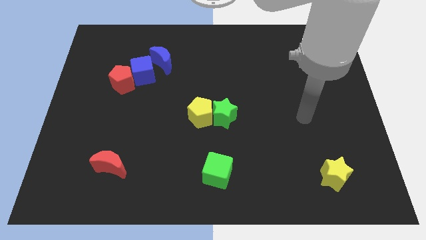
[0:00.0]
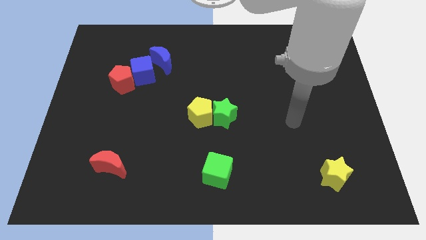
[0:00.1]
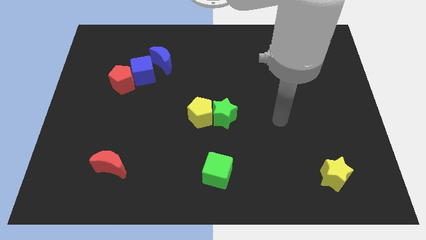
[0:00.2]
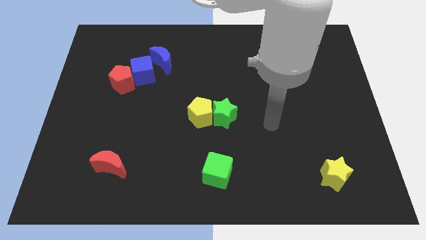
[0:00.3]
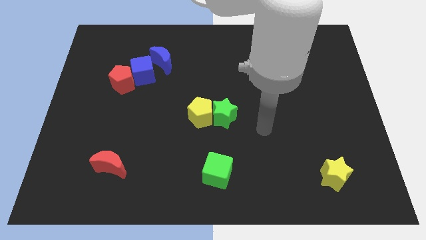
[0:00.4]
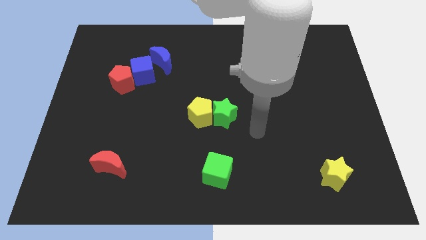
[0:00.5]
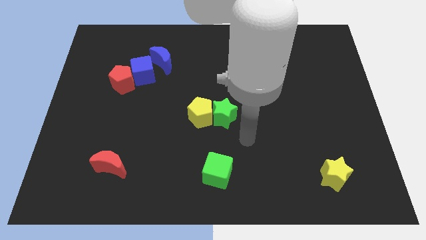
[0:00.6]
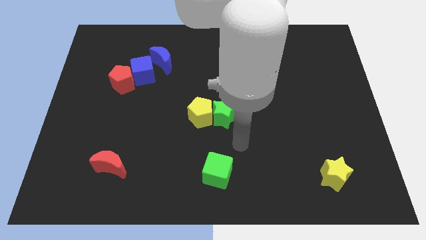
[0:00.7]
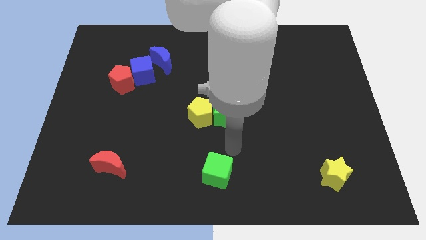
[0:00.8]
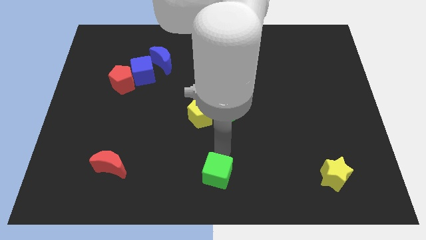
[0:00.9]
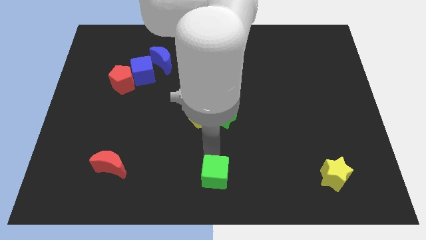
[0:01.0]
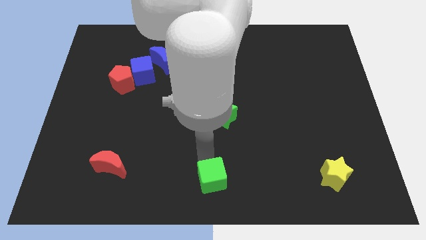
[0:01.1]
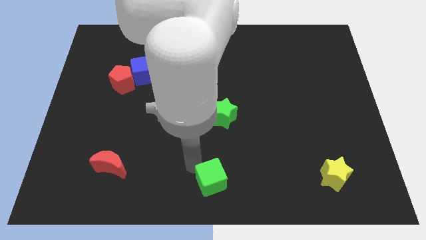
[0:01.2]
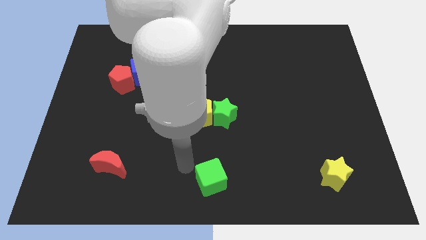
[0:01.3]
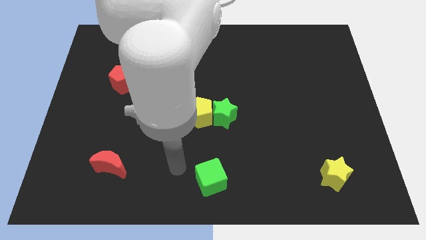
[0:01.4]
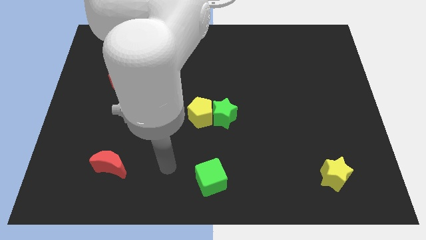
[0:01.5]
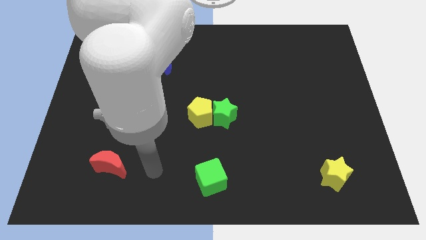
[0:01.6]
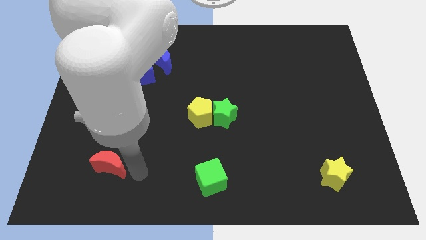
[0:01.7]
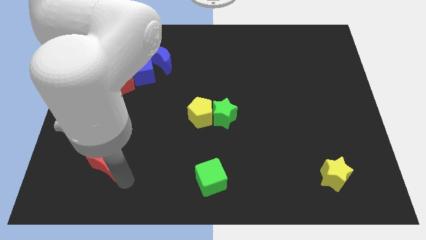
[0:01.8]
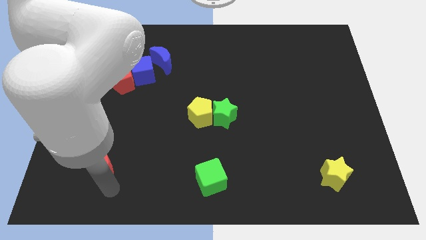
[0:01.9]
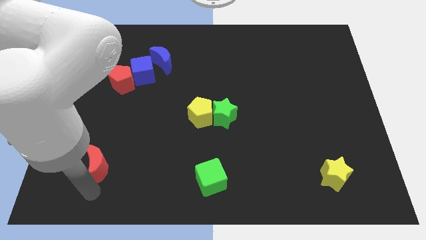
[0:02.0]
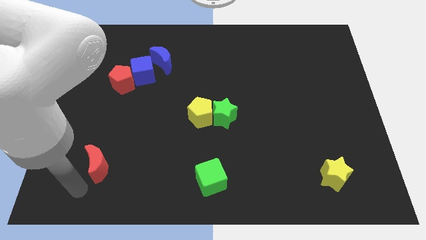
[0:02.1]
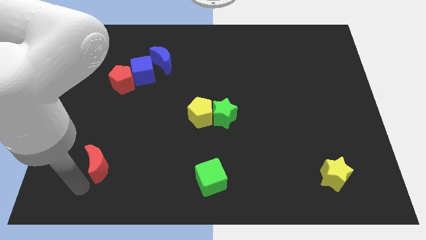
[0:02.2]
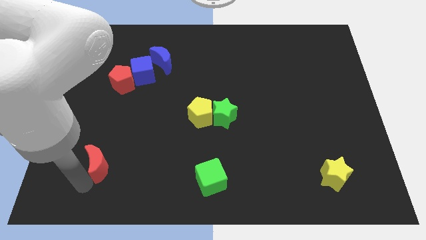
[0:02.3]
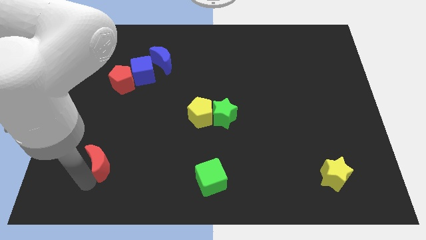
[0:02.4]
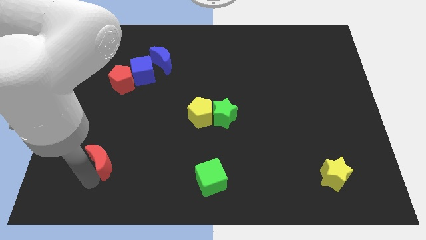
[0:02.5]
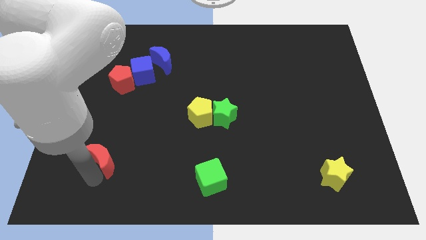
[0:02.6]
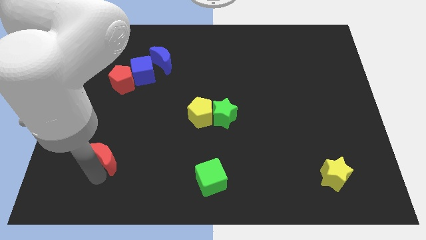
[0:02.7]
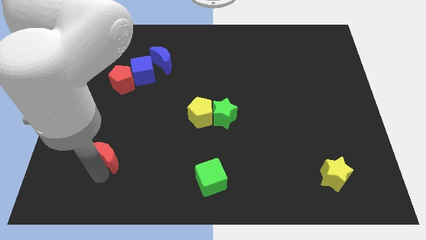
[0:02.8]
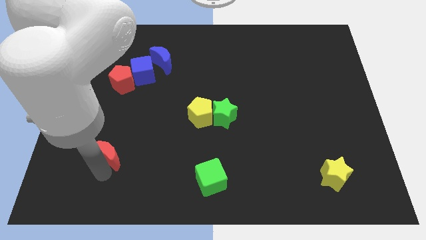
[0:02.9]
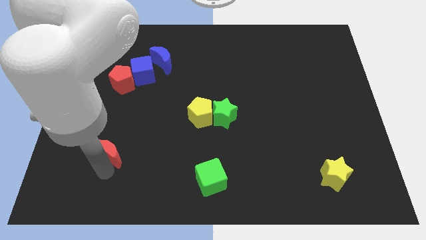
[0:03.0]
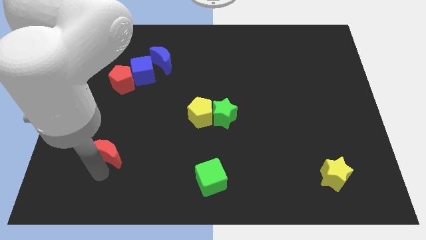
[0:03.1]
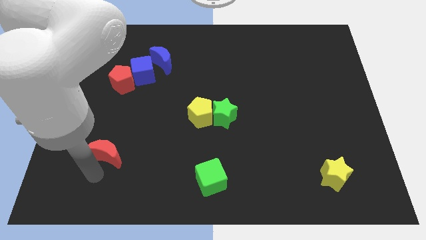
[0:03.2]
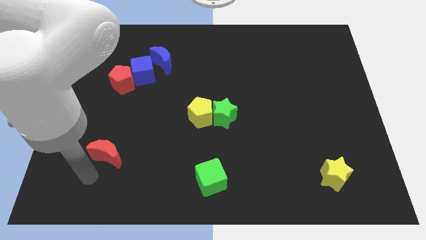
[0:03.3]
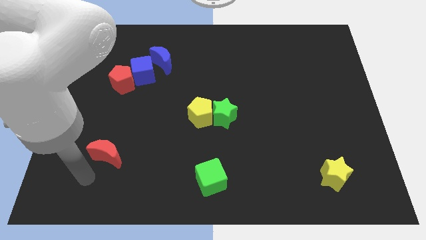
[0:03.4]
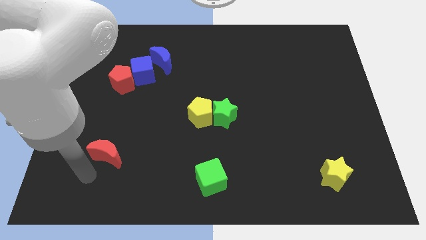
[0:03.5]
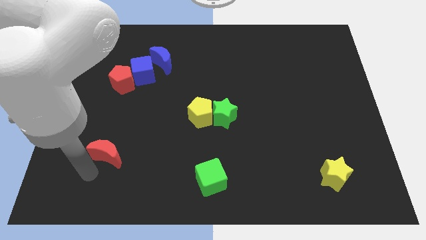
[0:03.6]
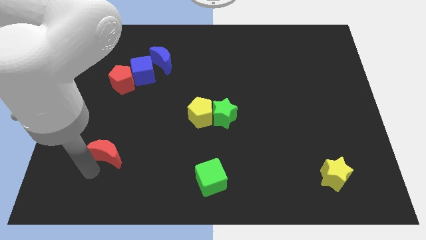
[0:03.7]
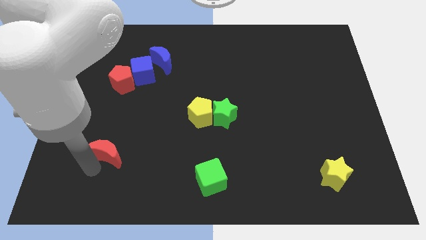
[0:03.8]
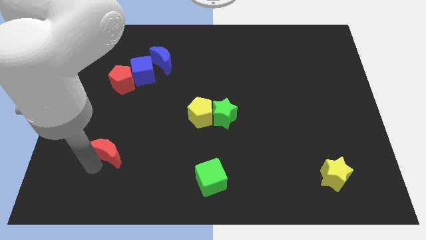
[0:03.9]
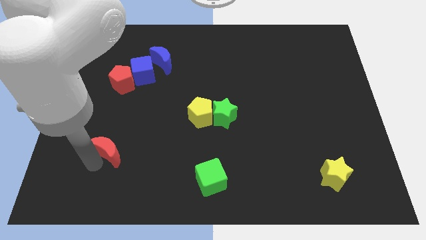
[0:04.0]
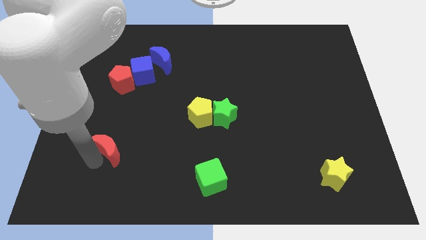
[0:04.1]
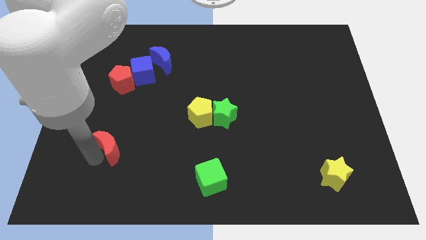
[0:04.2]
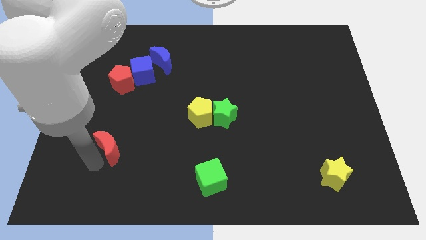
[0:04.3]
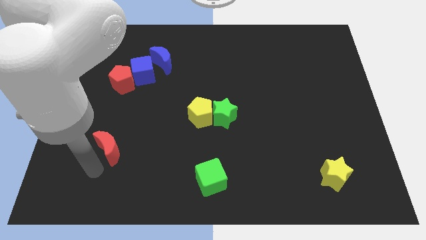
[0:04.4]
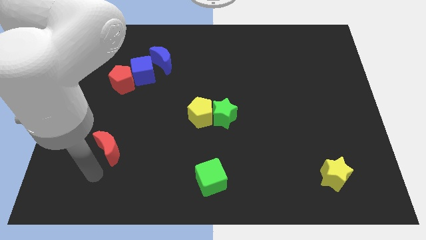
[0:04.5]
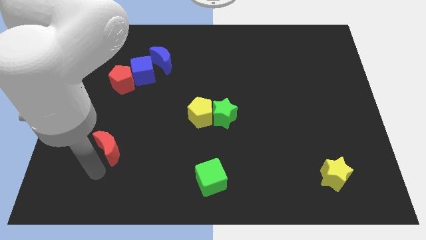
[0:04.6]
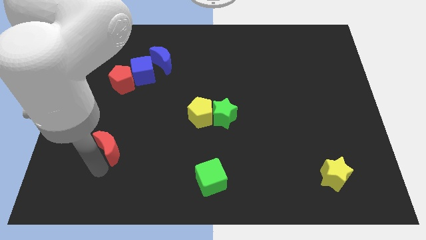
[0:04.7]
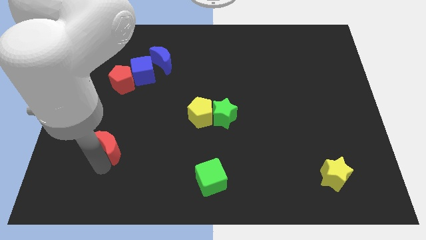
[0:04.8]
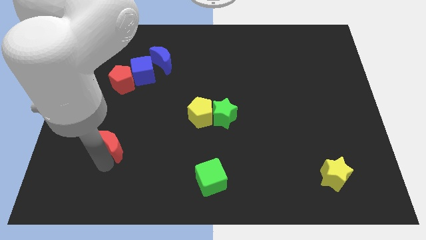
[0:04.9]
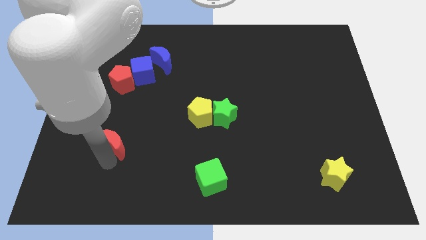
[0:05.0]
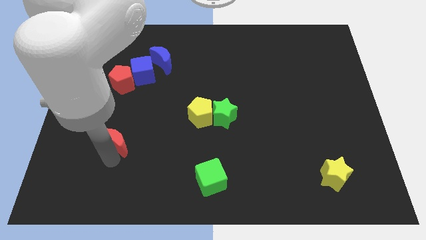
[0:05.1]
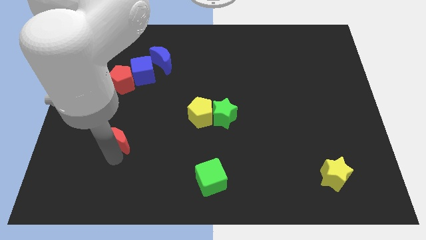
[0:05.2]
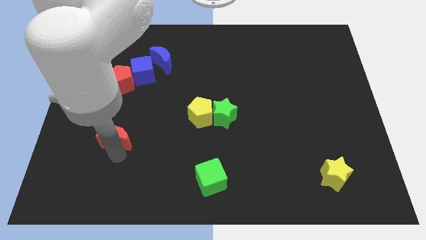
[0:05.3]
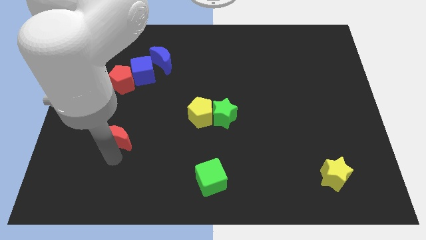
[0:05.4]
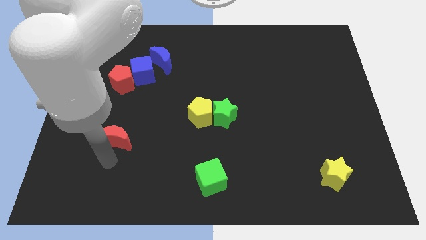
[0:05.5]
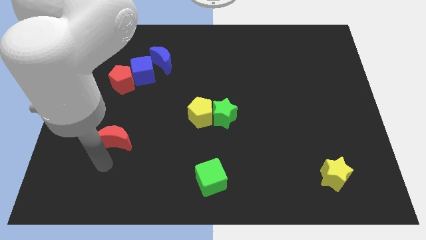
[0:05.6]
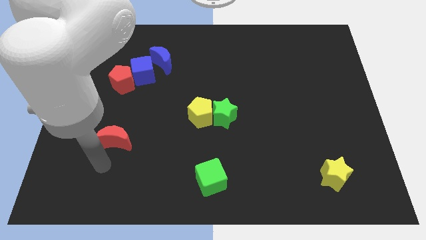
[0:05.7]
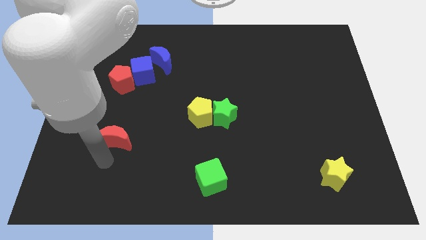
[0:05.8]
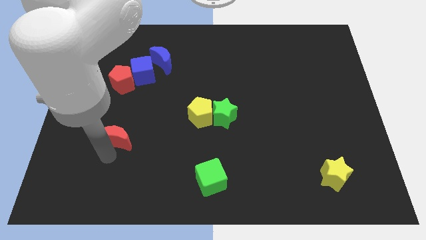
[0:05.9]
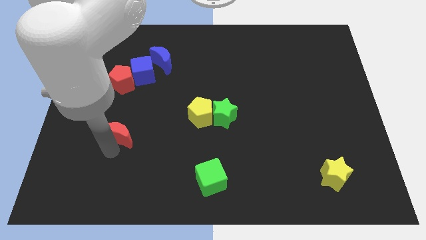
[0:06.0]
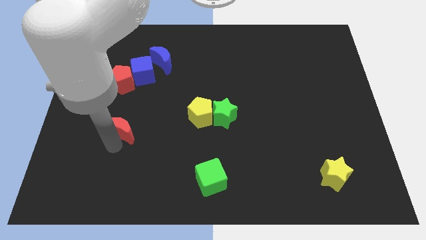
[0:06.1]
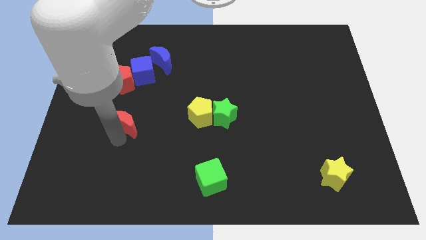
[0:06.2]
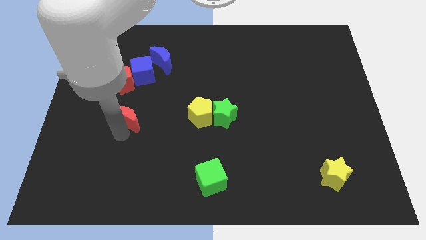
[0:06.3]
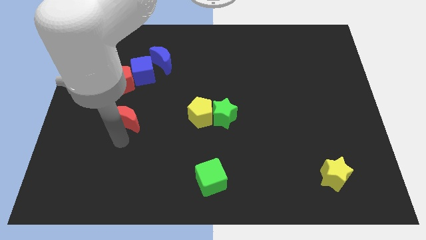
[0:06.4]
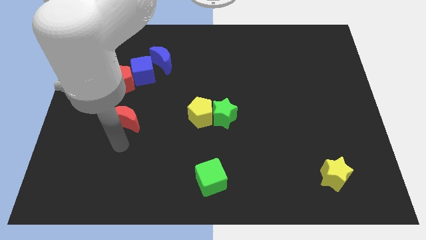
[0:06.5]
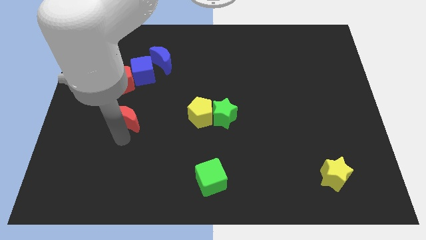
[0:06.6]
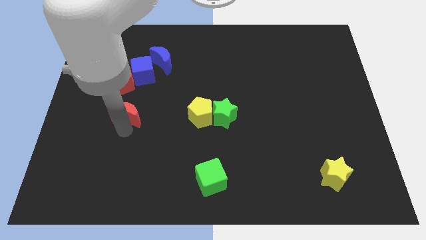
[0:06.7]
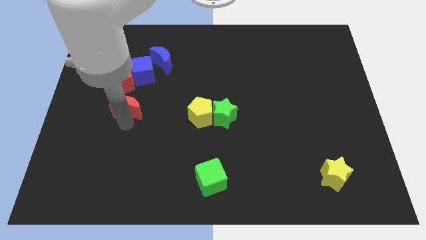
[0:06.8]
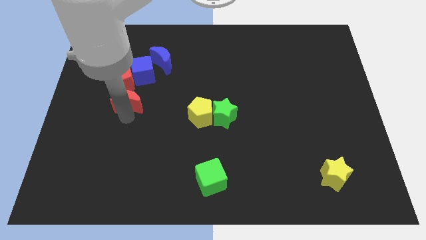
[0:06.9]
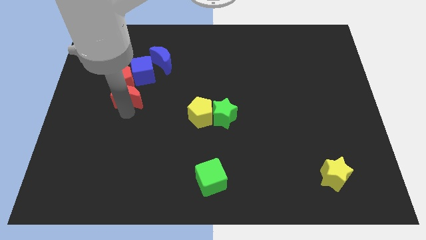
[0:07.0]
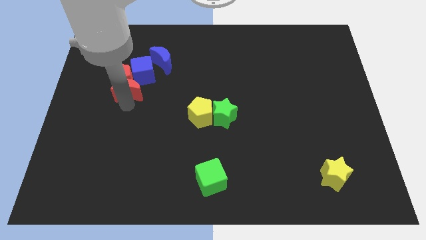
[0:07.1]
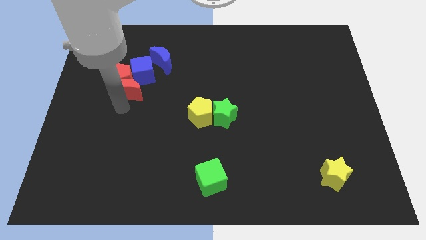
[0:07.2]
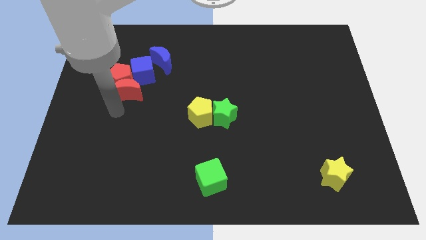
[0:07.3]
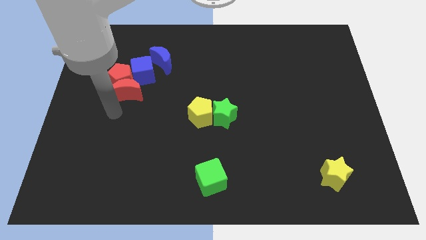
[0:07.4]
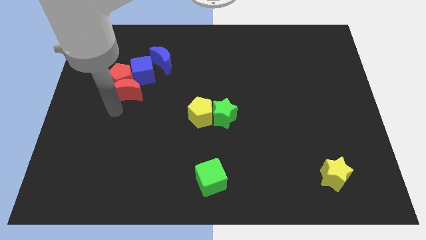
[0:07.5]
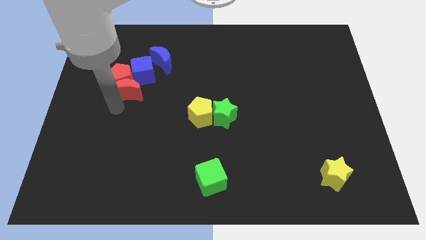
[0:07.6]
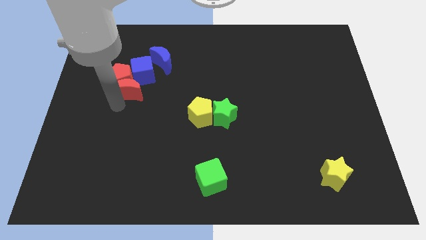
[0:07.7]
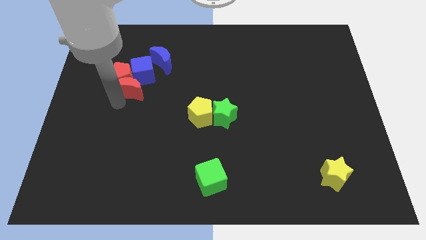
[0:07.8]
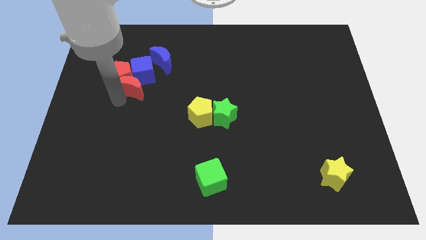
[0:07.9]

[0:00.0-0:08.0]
put the red moon close to the blue cube
